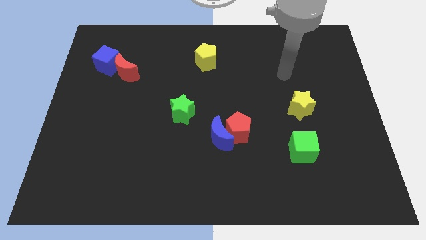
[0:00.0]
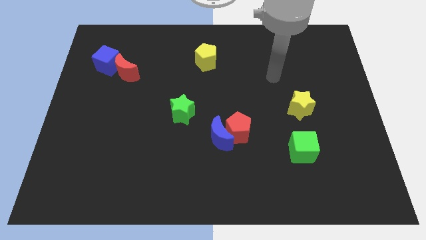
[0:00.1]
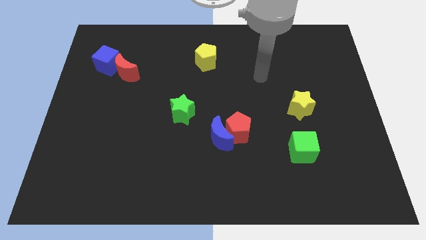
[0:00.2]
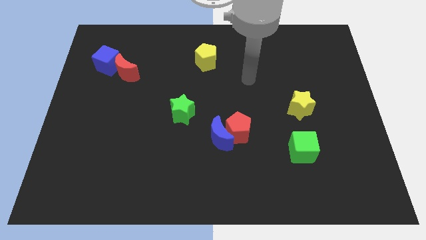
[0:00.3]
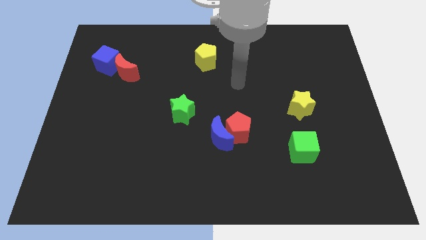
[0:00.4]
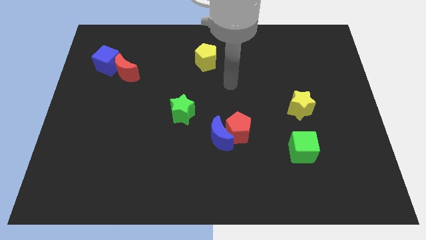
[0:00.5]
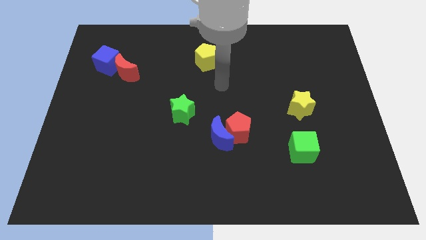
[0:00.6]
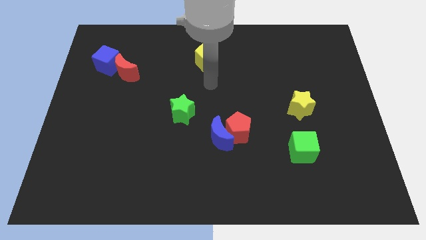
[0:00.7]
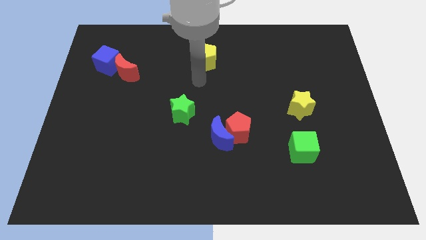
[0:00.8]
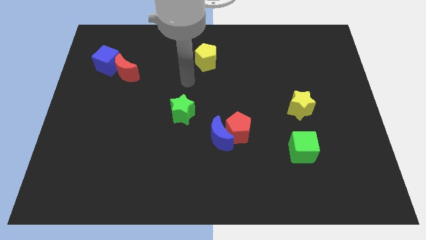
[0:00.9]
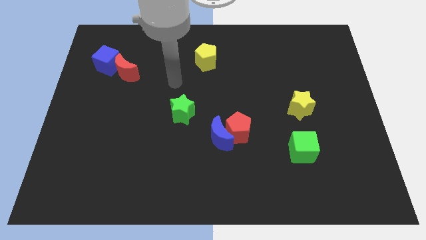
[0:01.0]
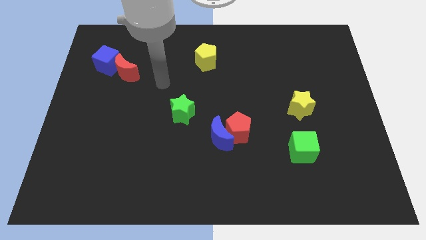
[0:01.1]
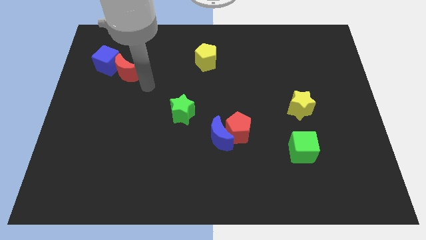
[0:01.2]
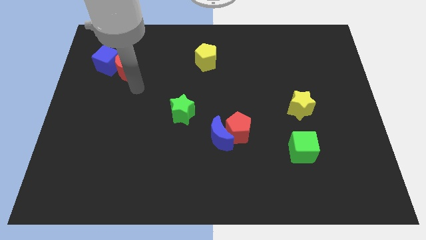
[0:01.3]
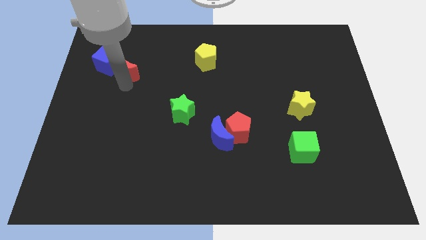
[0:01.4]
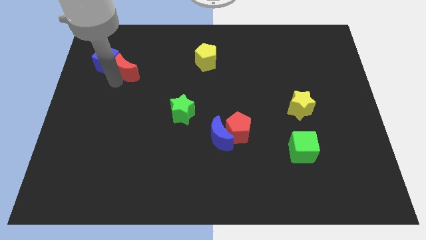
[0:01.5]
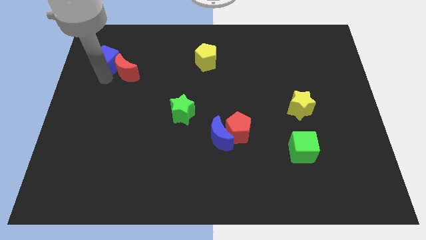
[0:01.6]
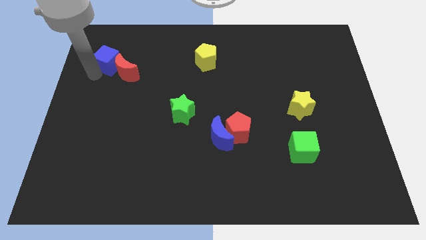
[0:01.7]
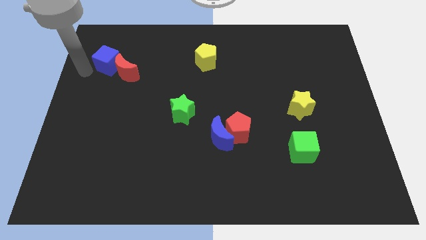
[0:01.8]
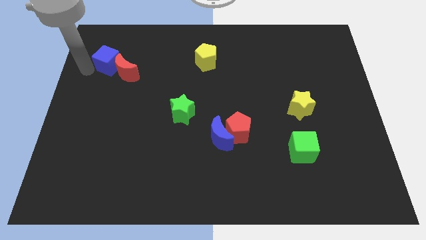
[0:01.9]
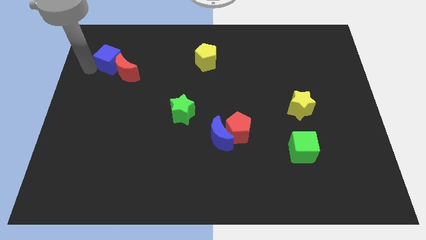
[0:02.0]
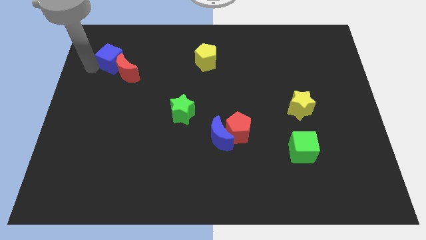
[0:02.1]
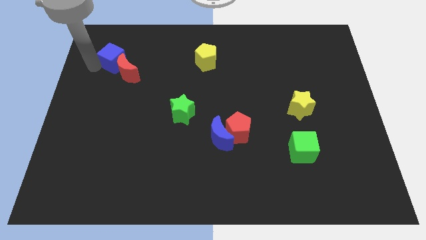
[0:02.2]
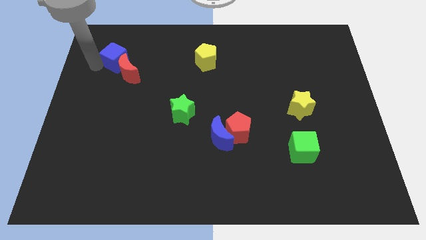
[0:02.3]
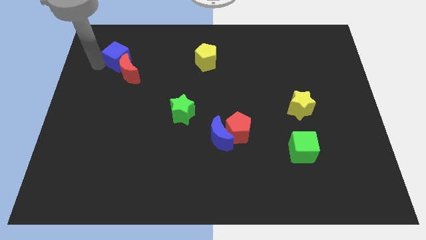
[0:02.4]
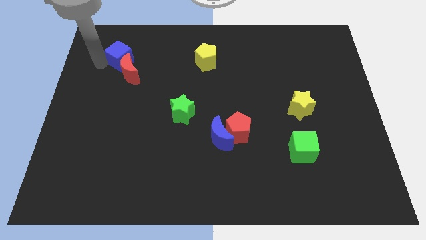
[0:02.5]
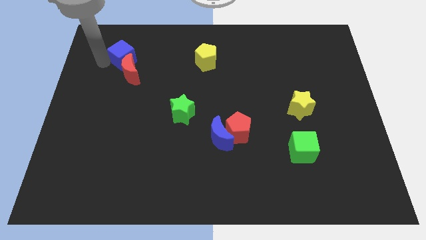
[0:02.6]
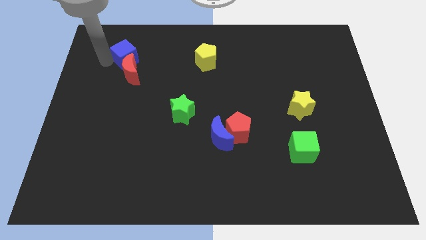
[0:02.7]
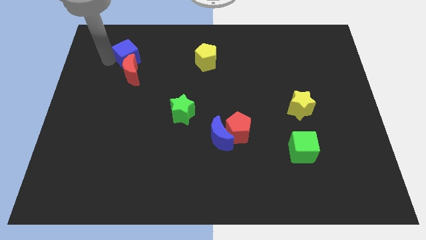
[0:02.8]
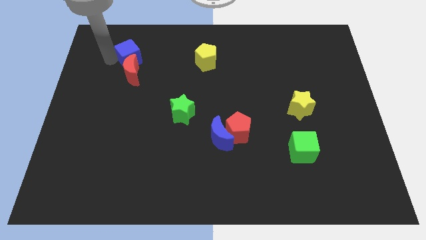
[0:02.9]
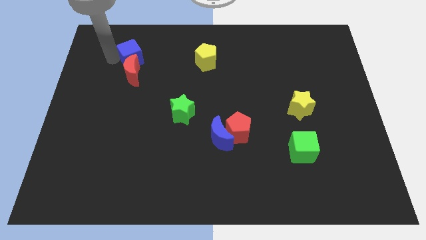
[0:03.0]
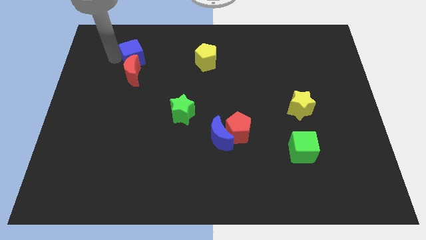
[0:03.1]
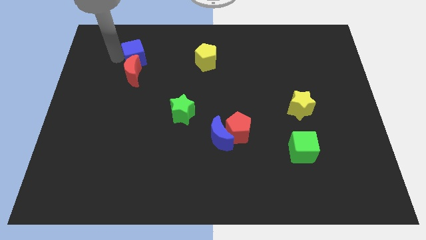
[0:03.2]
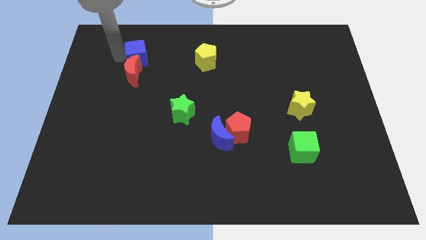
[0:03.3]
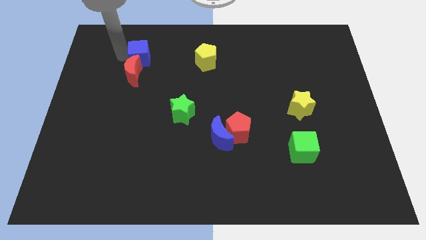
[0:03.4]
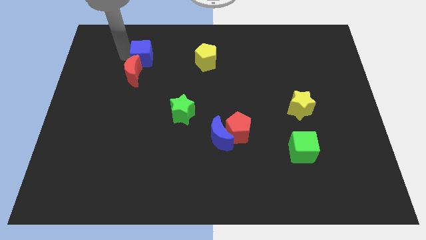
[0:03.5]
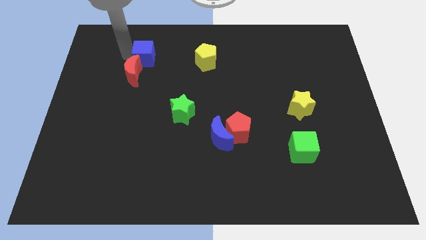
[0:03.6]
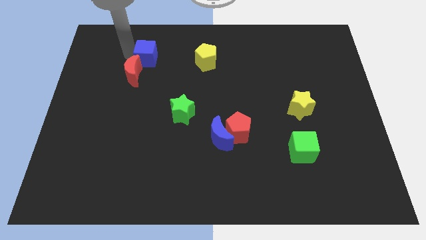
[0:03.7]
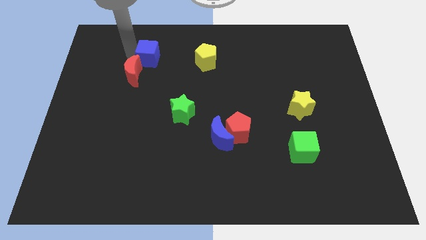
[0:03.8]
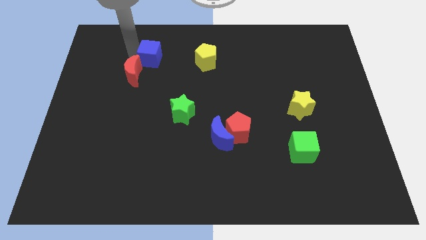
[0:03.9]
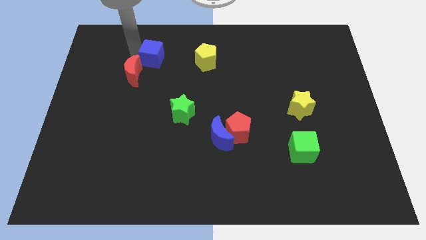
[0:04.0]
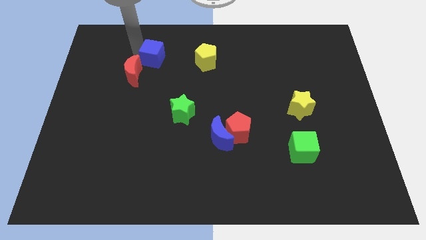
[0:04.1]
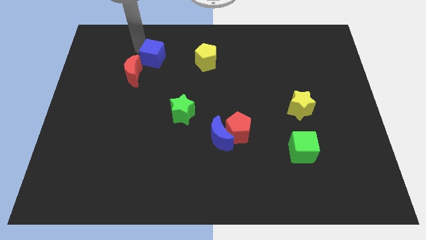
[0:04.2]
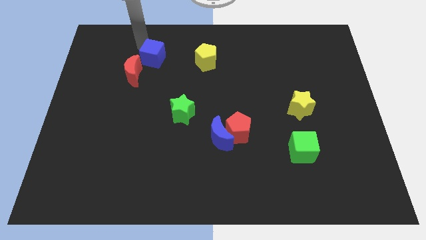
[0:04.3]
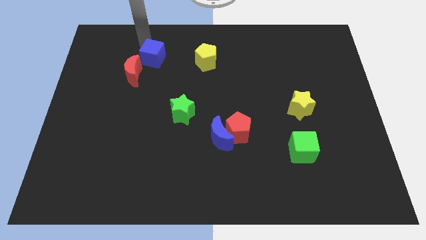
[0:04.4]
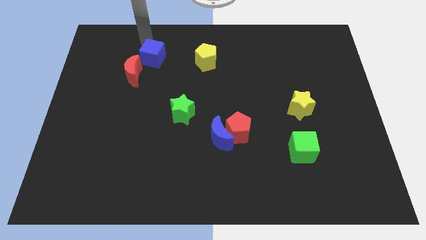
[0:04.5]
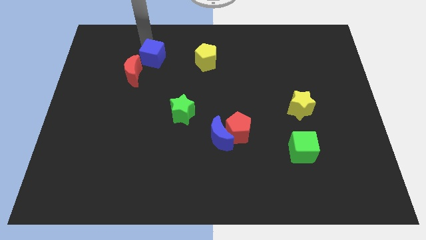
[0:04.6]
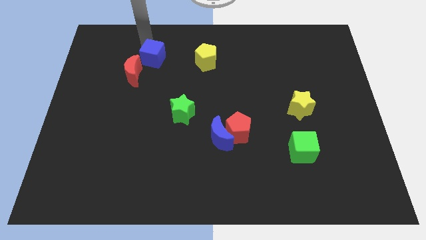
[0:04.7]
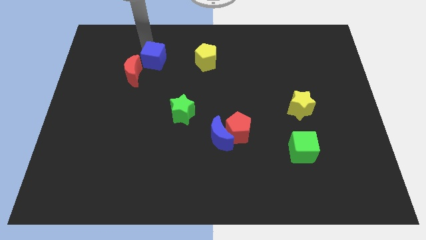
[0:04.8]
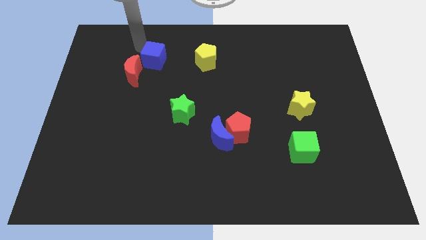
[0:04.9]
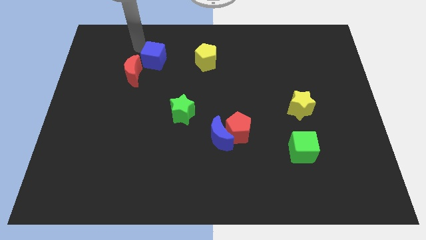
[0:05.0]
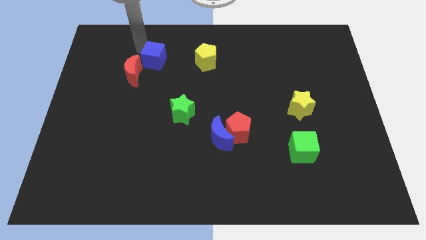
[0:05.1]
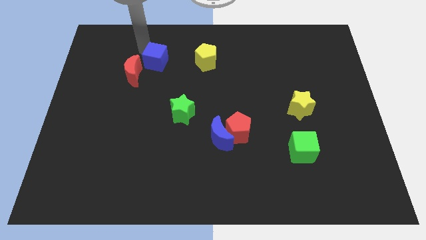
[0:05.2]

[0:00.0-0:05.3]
push the blue cube just right of the red moon

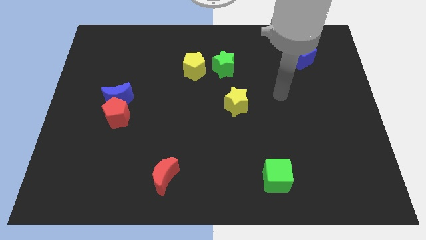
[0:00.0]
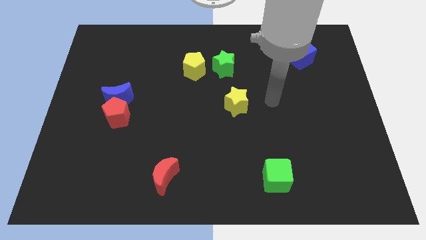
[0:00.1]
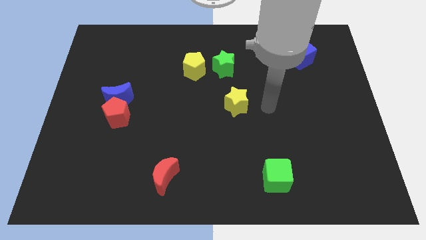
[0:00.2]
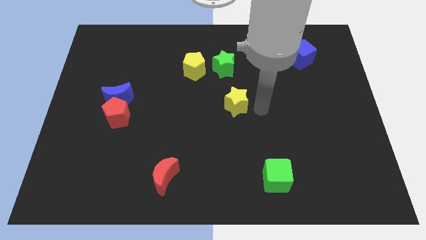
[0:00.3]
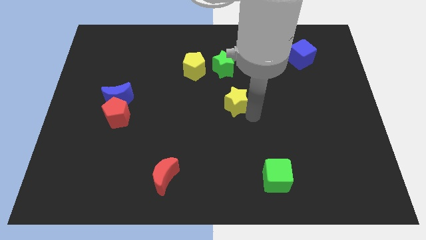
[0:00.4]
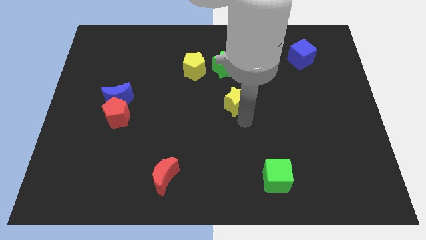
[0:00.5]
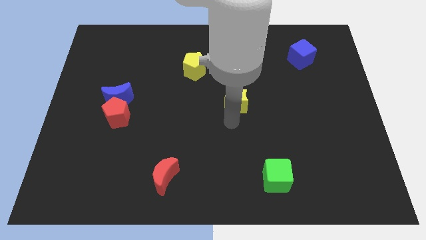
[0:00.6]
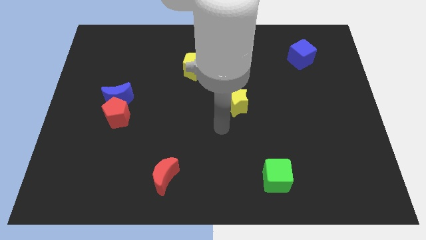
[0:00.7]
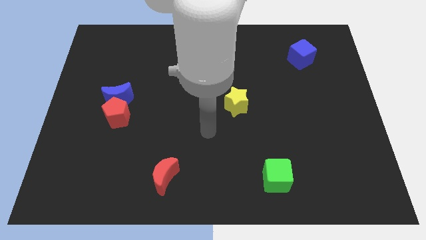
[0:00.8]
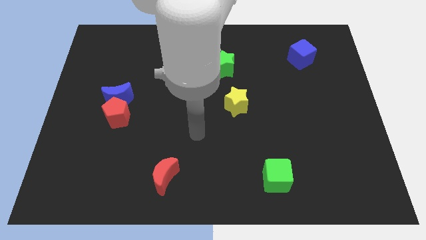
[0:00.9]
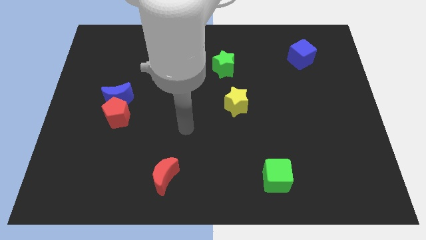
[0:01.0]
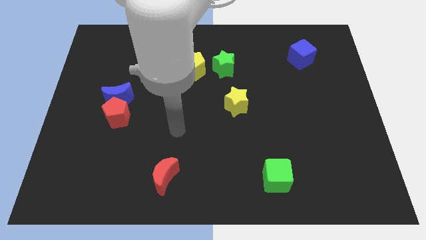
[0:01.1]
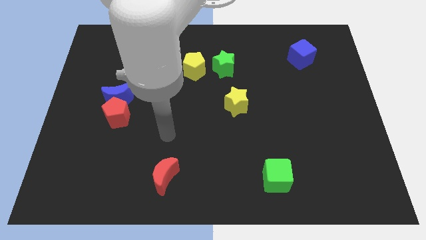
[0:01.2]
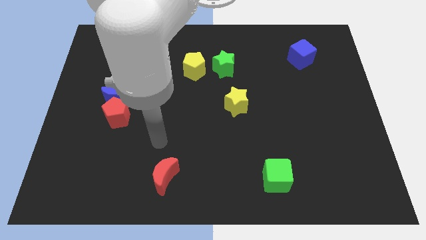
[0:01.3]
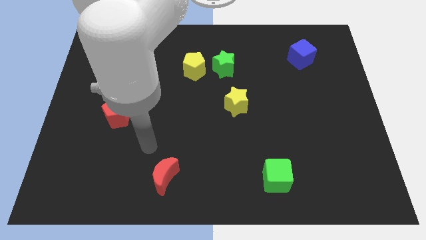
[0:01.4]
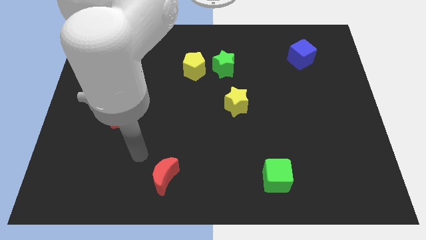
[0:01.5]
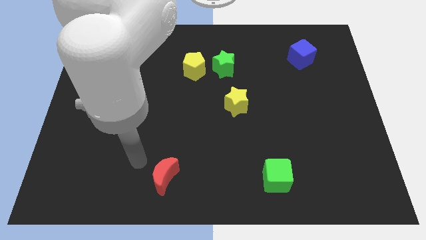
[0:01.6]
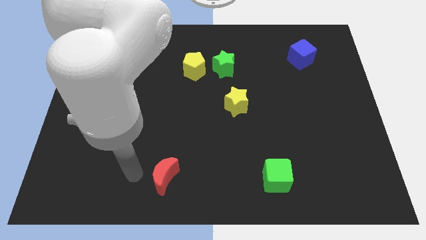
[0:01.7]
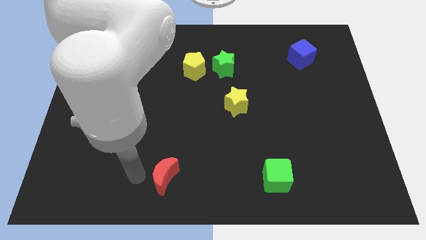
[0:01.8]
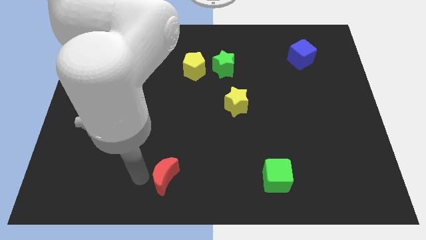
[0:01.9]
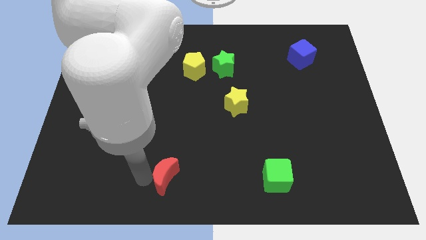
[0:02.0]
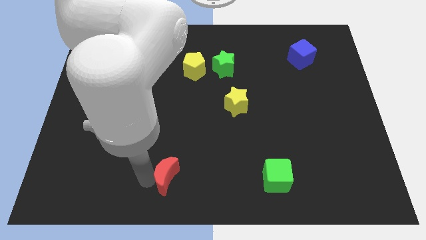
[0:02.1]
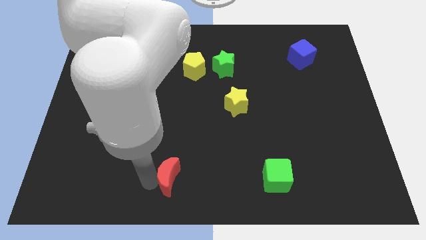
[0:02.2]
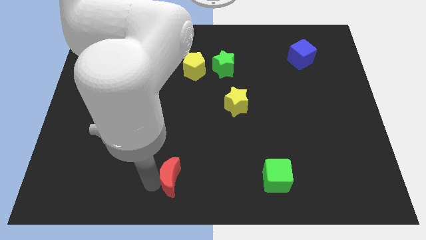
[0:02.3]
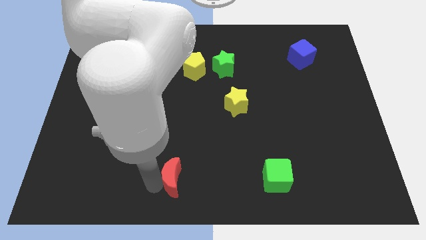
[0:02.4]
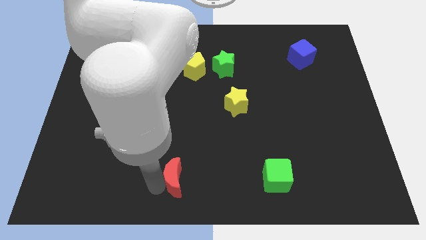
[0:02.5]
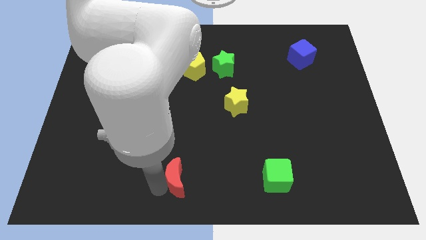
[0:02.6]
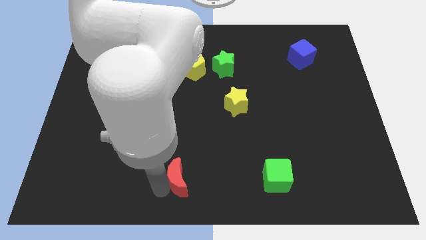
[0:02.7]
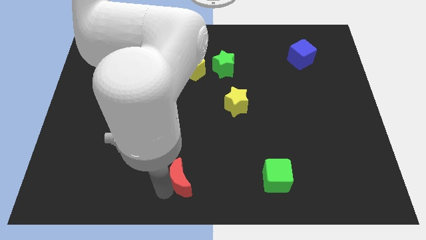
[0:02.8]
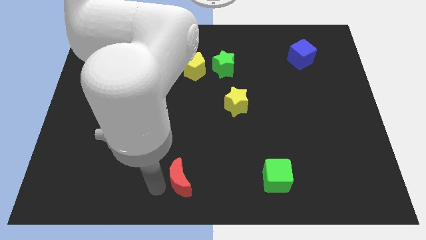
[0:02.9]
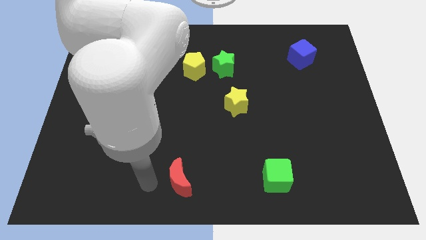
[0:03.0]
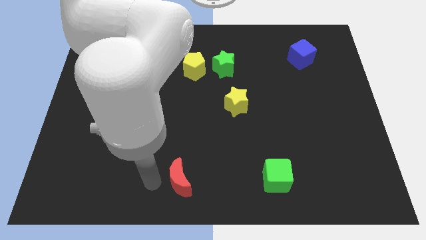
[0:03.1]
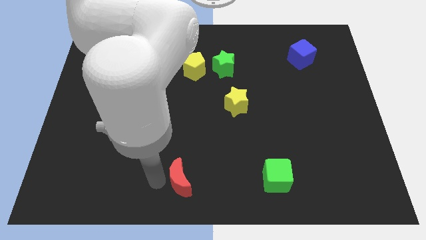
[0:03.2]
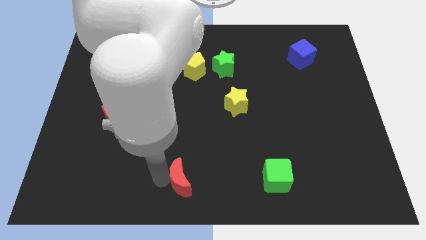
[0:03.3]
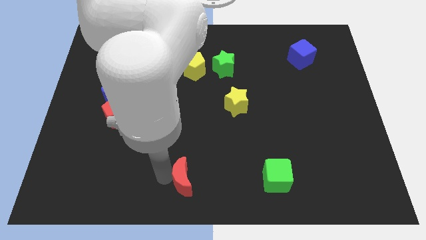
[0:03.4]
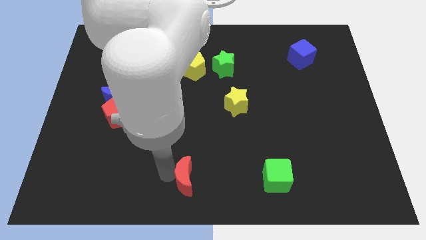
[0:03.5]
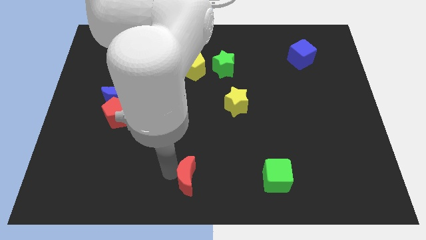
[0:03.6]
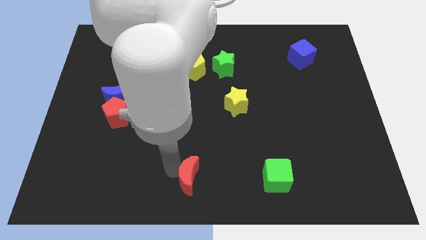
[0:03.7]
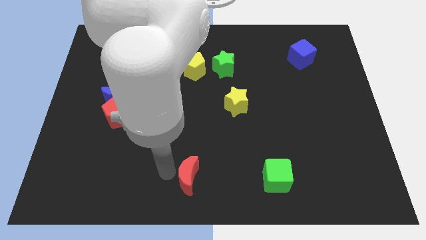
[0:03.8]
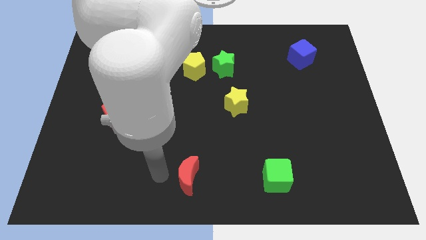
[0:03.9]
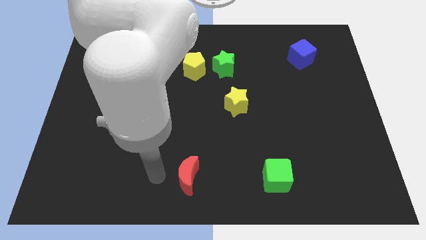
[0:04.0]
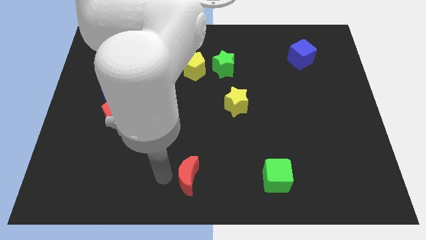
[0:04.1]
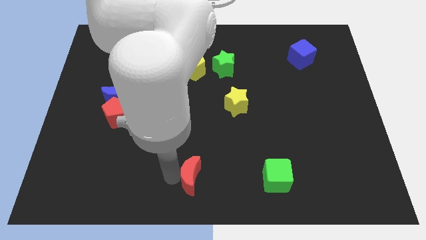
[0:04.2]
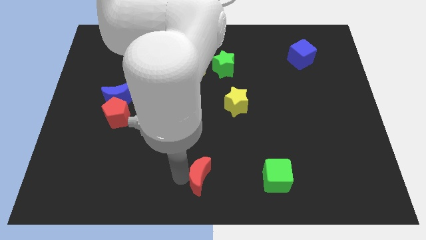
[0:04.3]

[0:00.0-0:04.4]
move the red moon to the left side of the green cube
